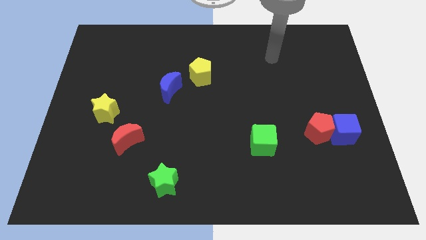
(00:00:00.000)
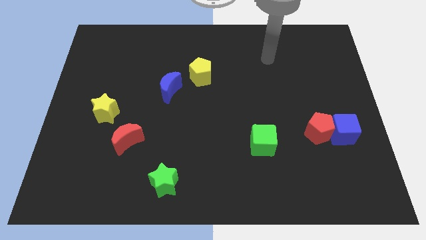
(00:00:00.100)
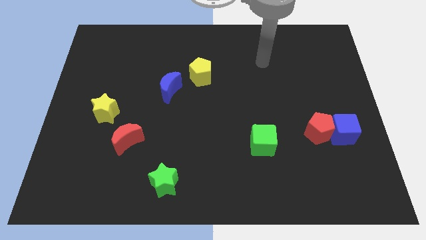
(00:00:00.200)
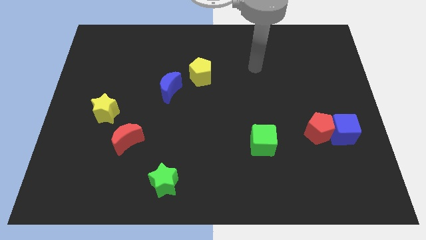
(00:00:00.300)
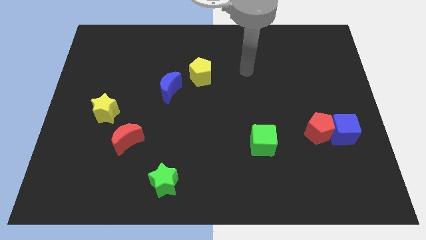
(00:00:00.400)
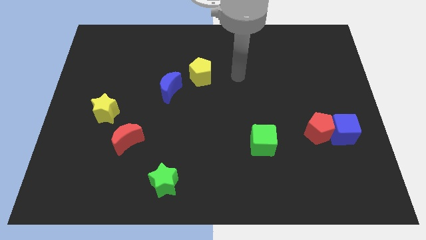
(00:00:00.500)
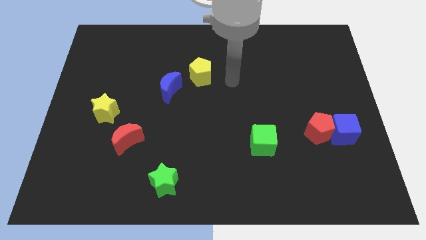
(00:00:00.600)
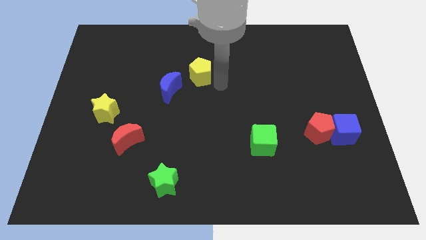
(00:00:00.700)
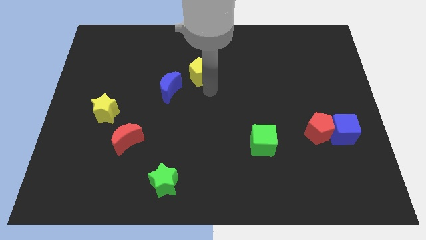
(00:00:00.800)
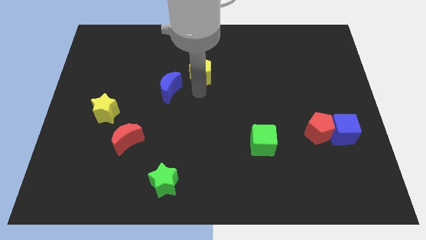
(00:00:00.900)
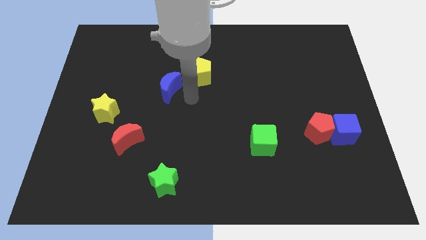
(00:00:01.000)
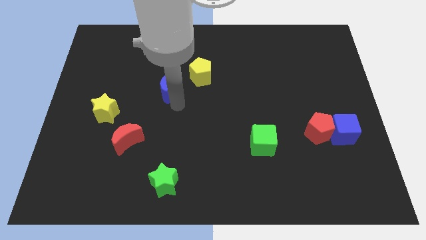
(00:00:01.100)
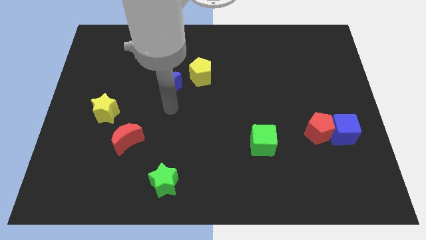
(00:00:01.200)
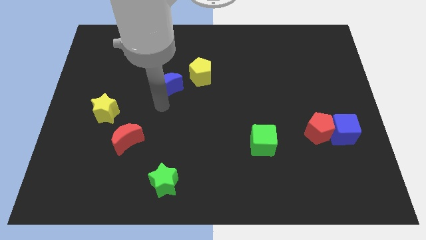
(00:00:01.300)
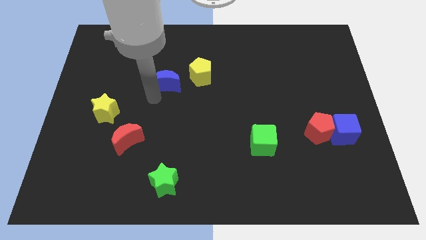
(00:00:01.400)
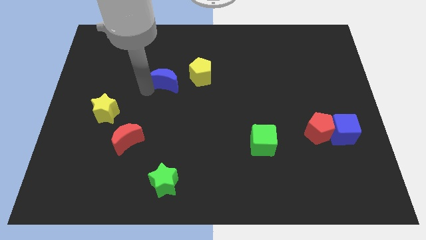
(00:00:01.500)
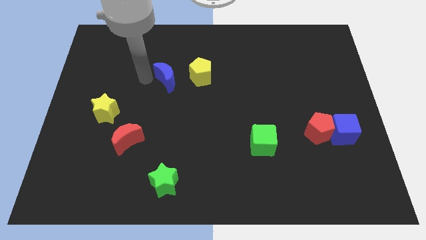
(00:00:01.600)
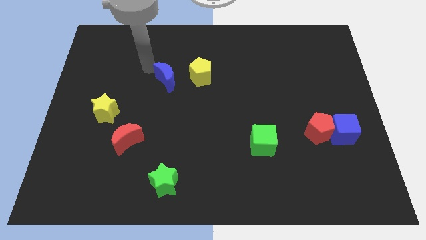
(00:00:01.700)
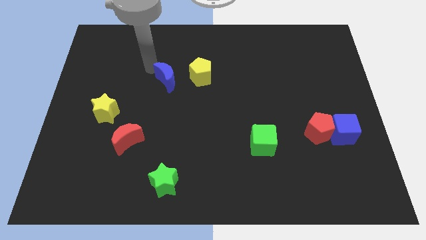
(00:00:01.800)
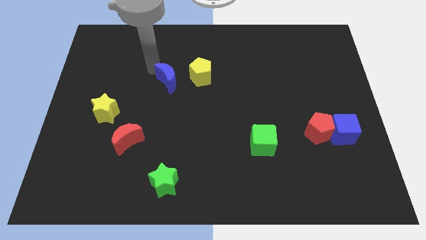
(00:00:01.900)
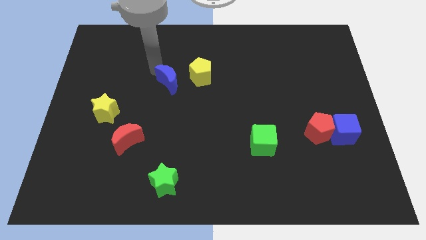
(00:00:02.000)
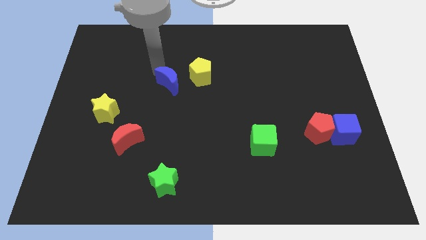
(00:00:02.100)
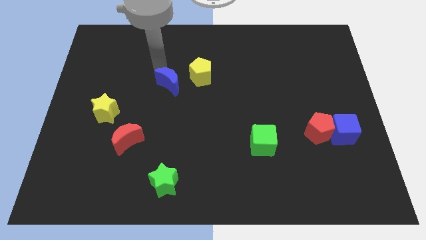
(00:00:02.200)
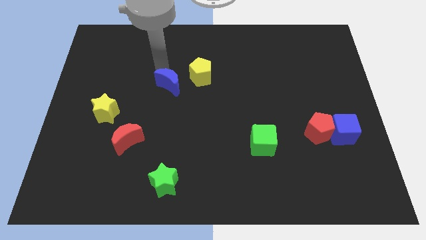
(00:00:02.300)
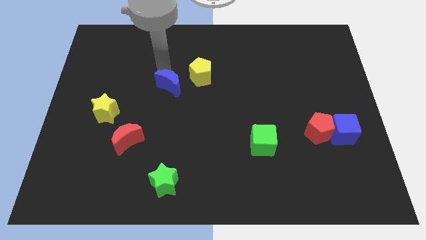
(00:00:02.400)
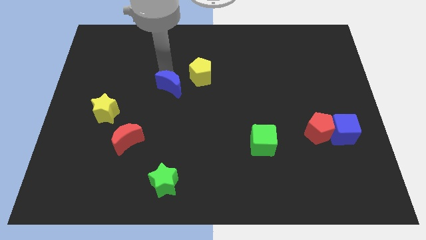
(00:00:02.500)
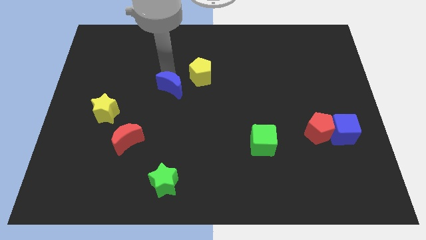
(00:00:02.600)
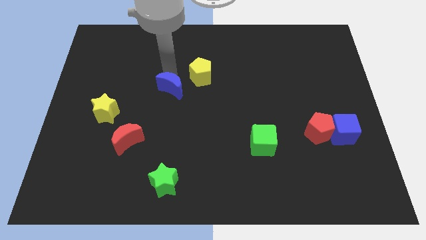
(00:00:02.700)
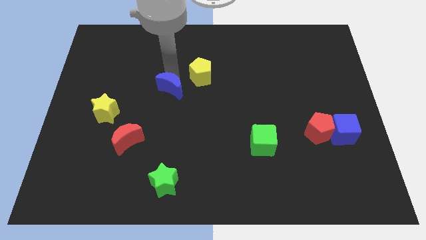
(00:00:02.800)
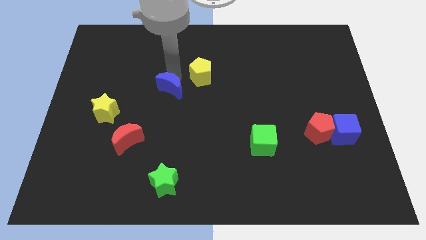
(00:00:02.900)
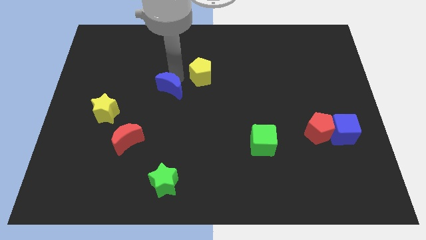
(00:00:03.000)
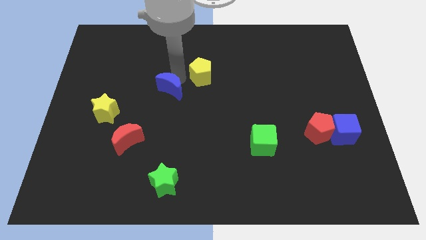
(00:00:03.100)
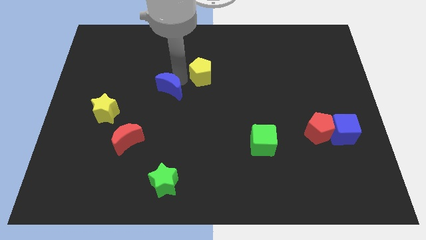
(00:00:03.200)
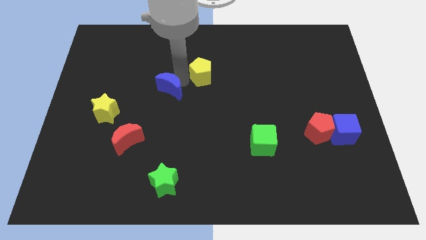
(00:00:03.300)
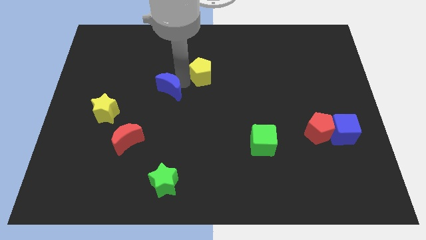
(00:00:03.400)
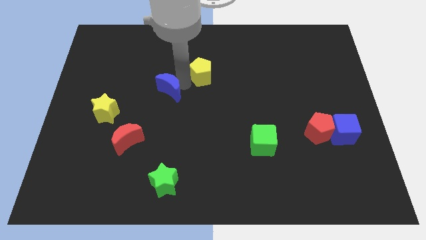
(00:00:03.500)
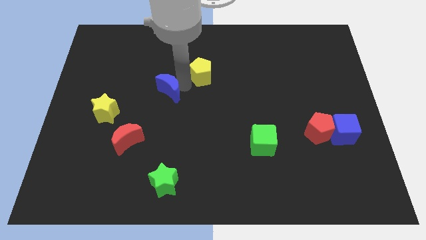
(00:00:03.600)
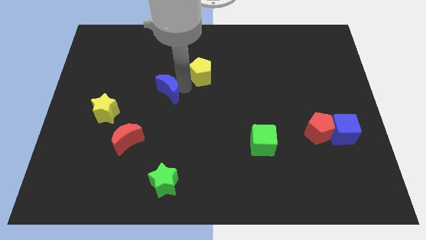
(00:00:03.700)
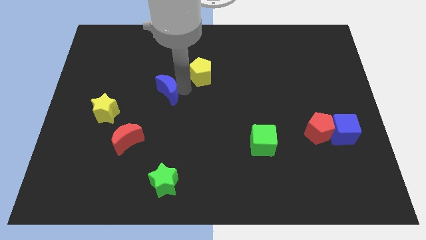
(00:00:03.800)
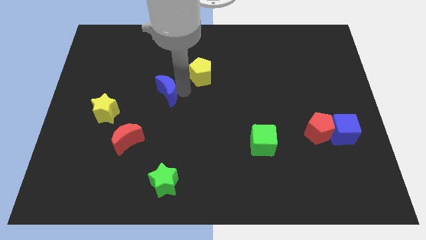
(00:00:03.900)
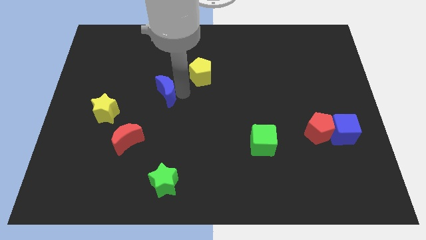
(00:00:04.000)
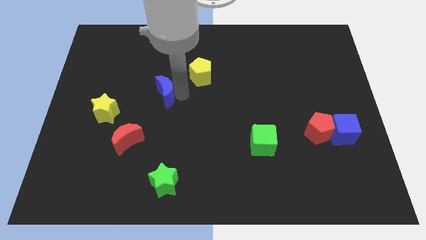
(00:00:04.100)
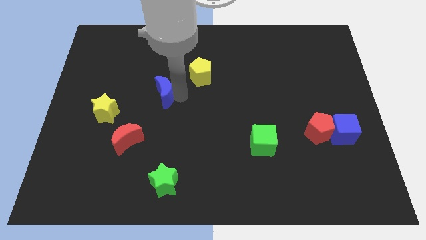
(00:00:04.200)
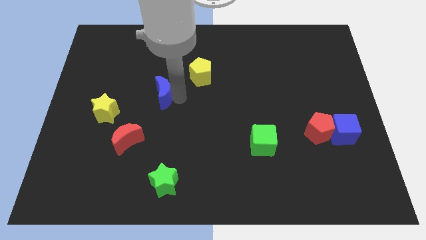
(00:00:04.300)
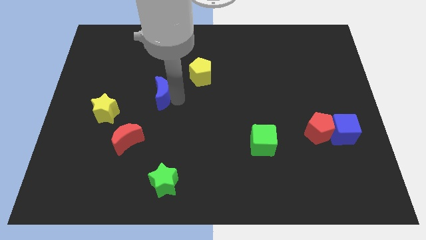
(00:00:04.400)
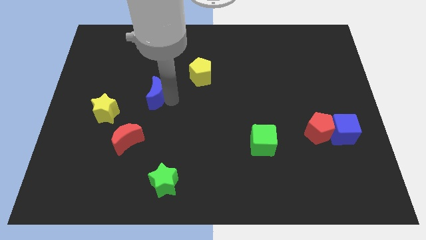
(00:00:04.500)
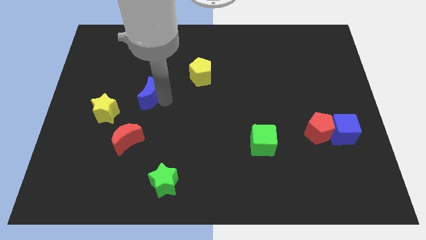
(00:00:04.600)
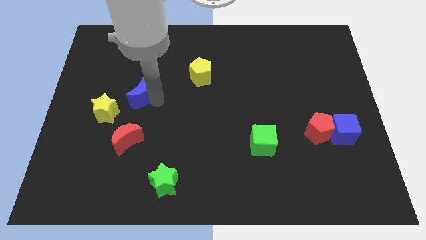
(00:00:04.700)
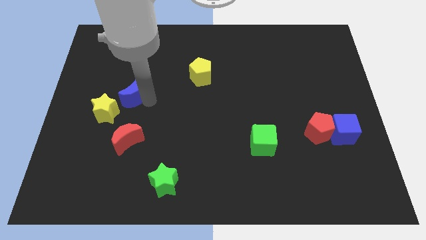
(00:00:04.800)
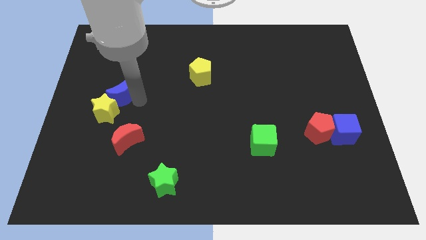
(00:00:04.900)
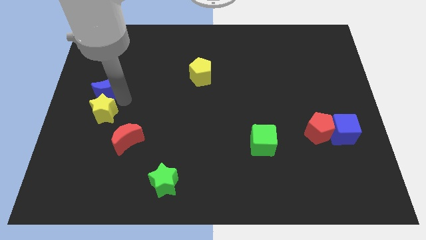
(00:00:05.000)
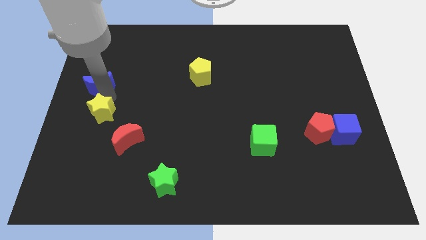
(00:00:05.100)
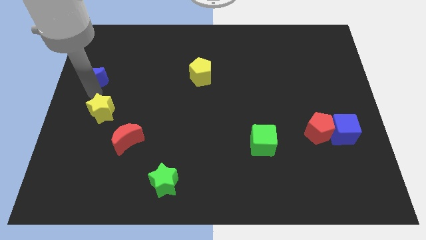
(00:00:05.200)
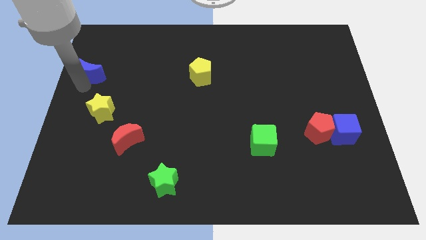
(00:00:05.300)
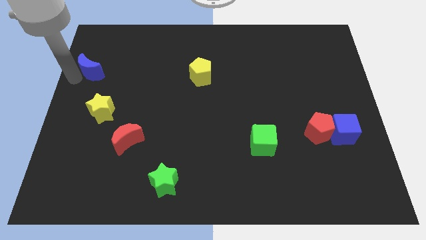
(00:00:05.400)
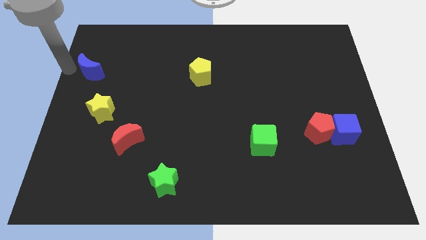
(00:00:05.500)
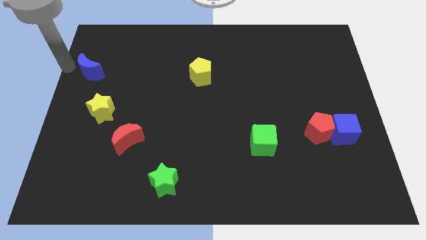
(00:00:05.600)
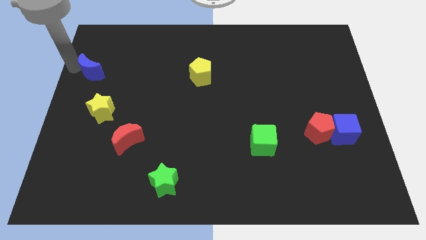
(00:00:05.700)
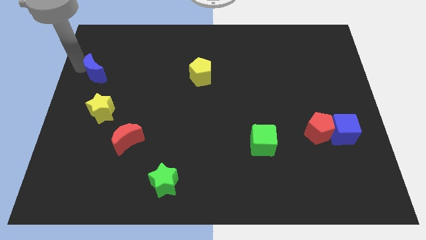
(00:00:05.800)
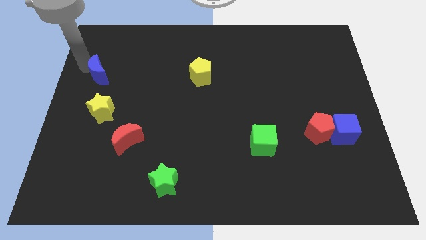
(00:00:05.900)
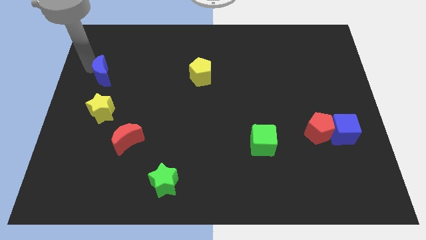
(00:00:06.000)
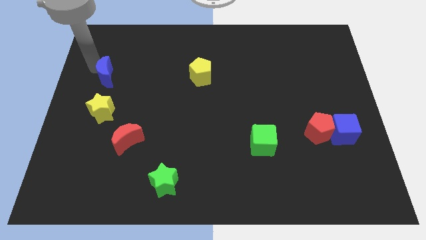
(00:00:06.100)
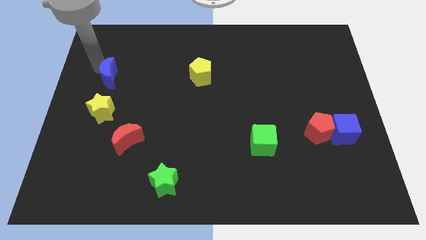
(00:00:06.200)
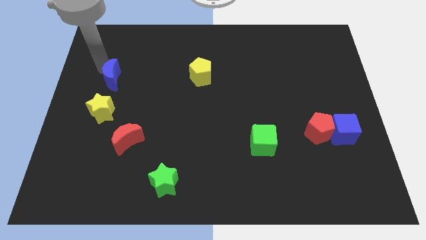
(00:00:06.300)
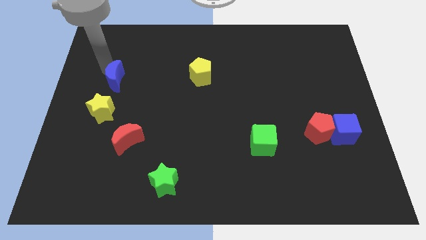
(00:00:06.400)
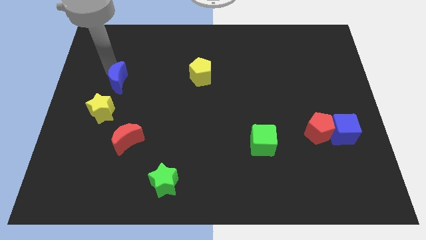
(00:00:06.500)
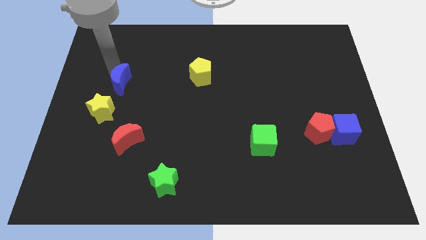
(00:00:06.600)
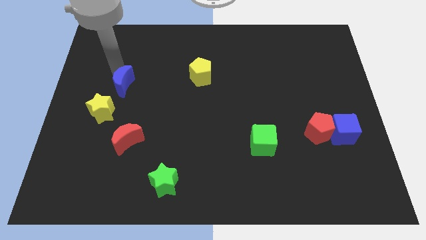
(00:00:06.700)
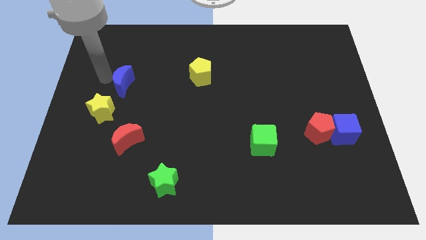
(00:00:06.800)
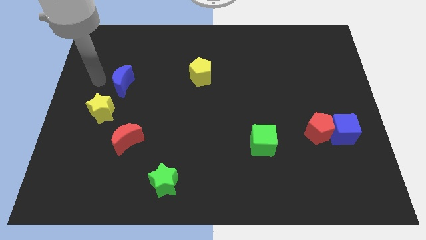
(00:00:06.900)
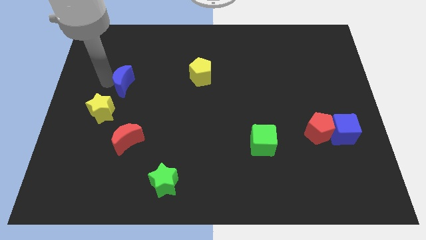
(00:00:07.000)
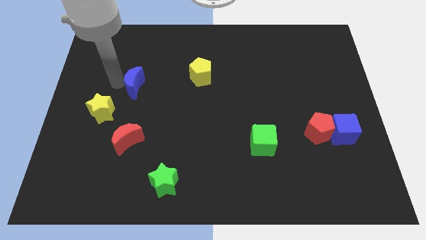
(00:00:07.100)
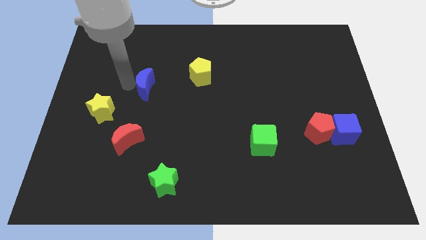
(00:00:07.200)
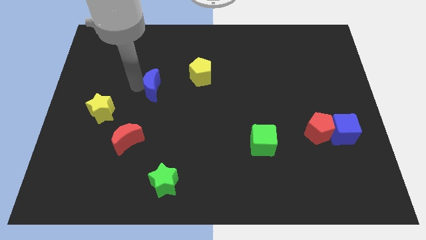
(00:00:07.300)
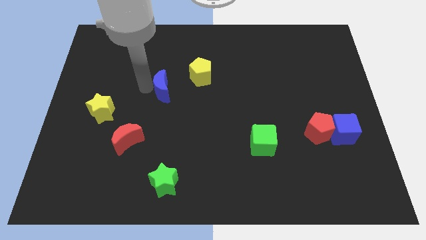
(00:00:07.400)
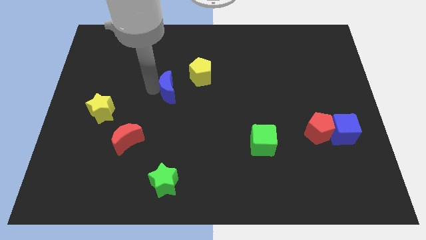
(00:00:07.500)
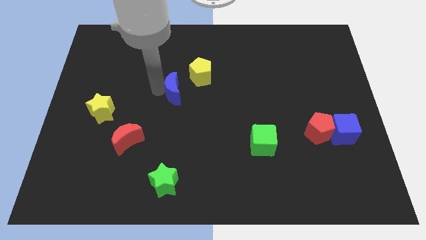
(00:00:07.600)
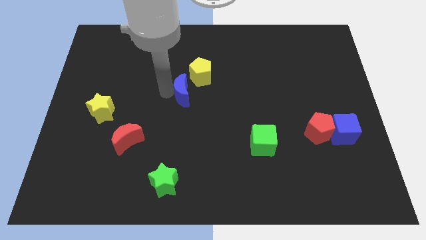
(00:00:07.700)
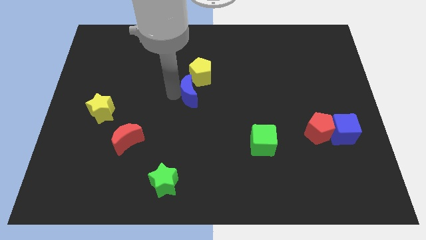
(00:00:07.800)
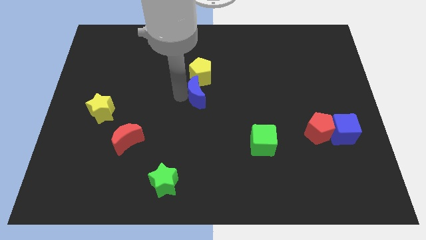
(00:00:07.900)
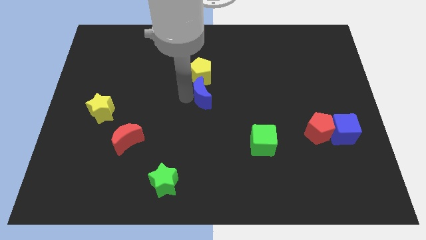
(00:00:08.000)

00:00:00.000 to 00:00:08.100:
push the blue moon a little right

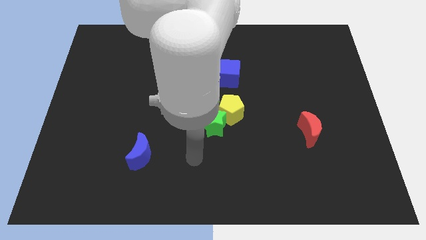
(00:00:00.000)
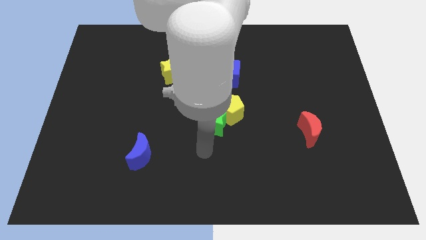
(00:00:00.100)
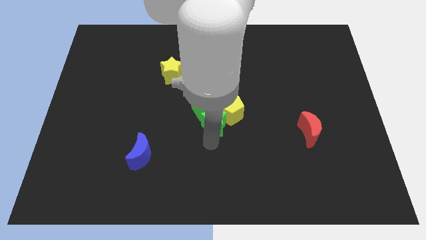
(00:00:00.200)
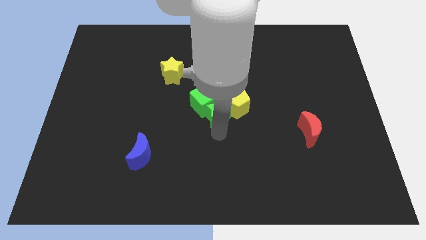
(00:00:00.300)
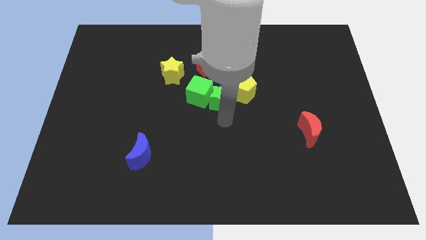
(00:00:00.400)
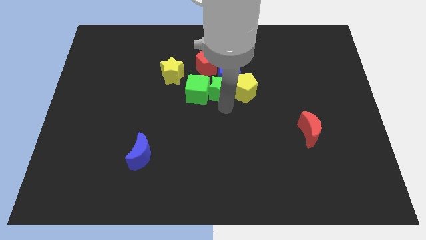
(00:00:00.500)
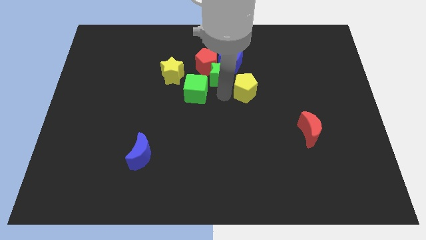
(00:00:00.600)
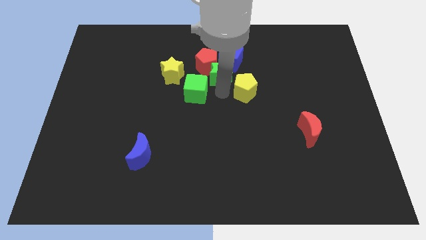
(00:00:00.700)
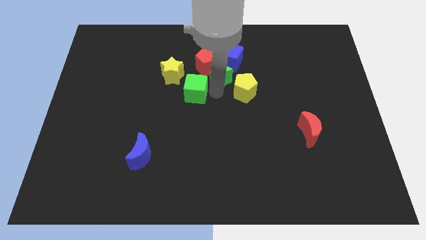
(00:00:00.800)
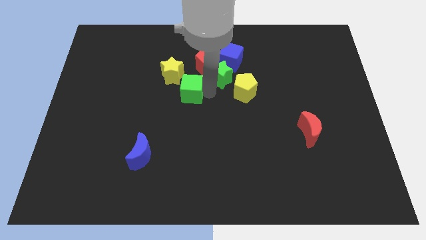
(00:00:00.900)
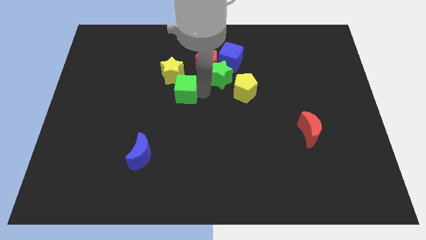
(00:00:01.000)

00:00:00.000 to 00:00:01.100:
move the green cube somewhat up and then to the left
